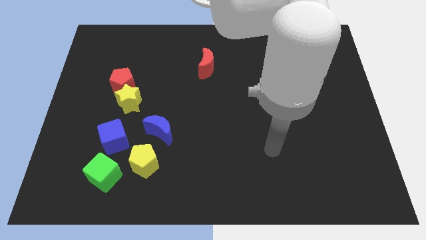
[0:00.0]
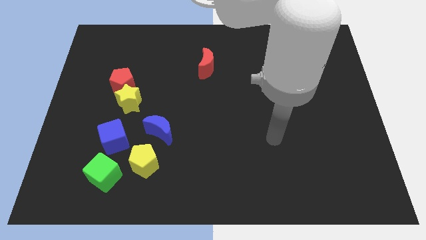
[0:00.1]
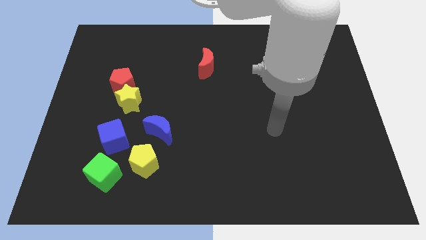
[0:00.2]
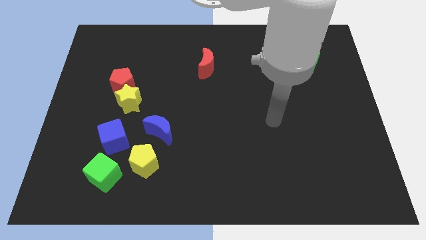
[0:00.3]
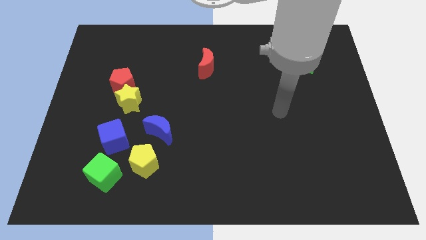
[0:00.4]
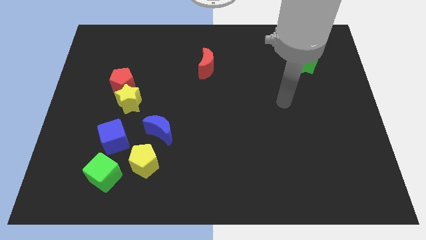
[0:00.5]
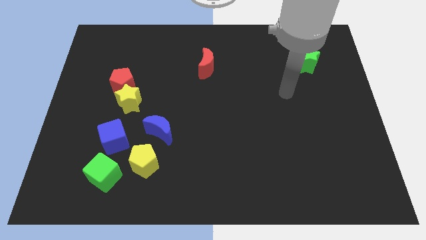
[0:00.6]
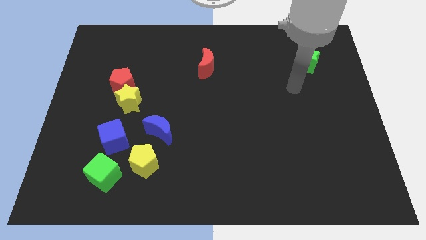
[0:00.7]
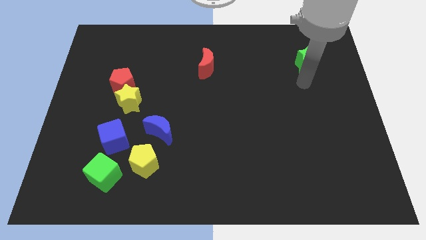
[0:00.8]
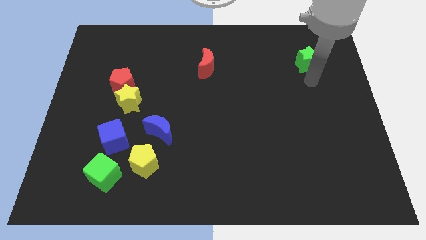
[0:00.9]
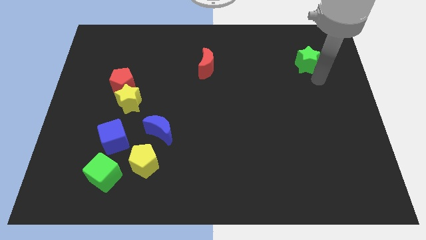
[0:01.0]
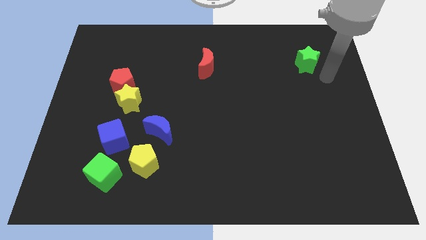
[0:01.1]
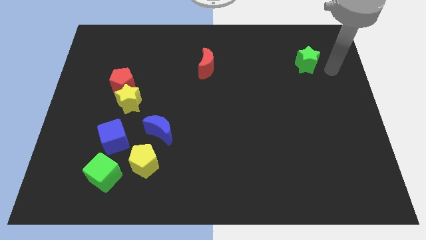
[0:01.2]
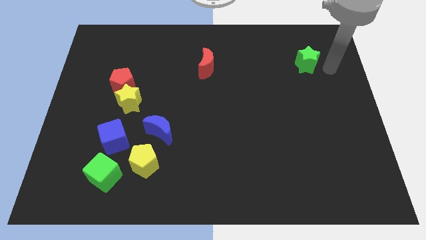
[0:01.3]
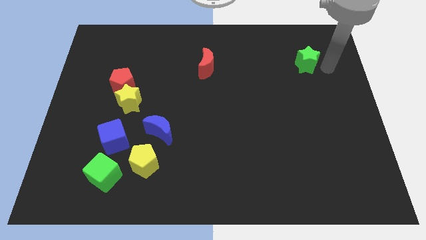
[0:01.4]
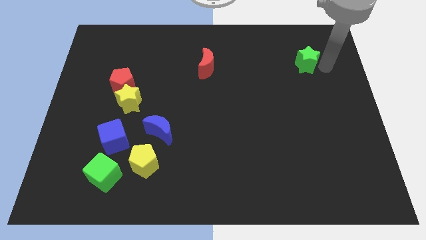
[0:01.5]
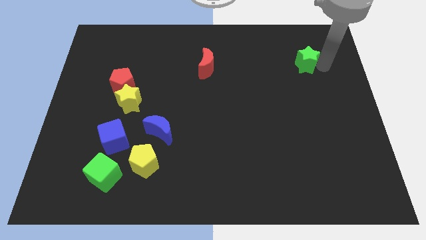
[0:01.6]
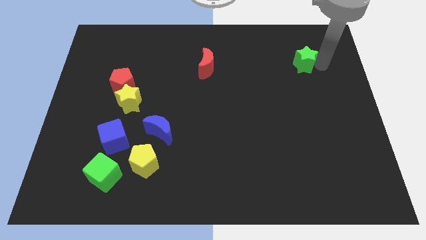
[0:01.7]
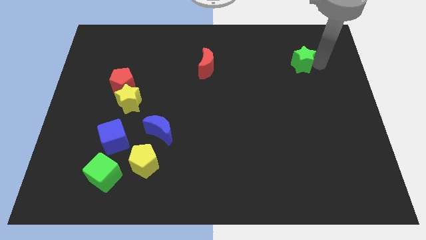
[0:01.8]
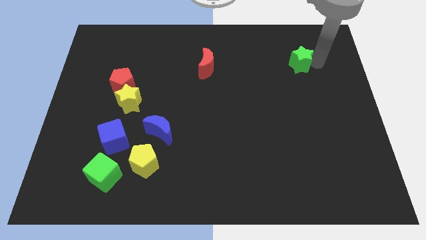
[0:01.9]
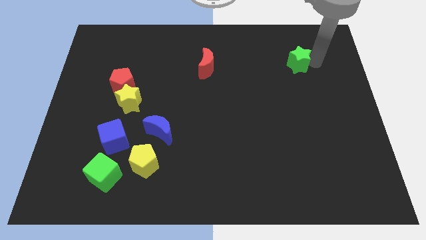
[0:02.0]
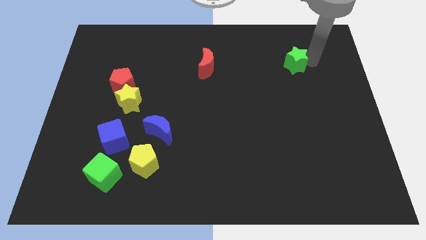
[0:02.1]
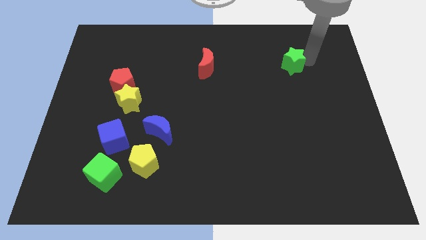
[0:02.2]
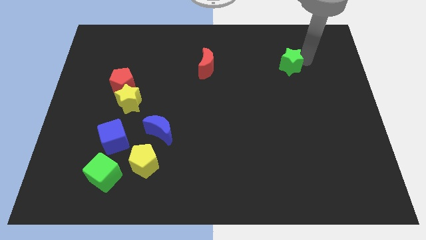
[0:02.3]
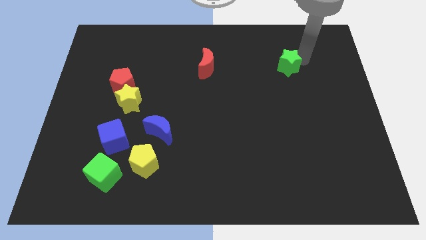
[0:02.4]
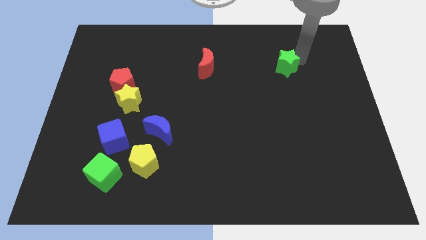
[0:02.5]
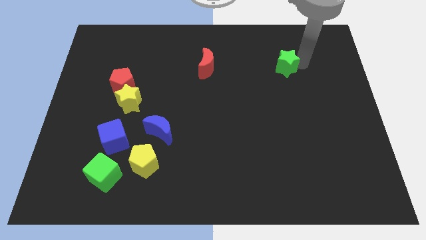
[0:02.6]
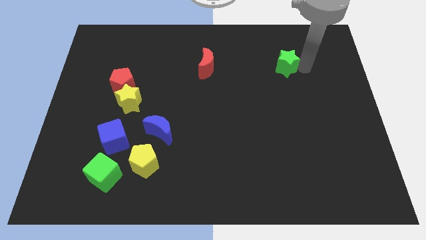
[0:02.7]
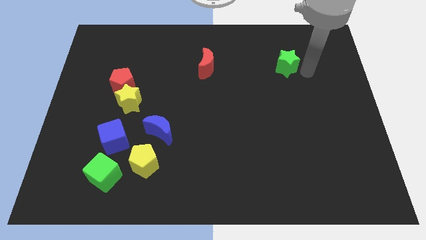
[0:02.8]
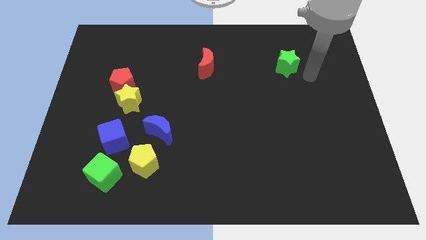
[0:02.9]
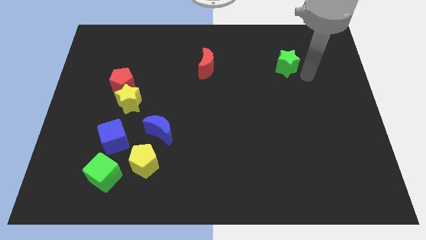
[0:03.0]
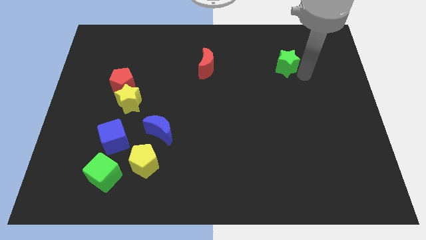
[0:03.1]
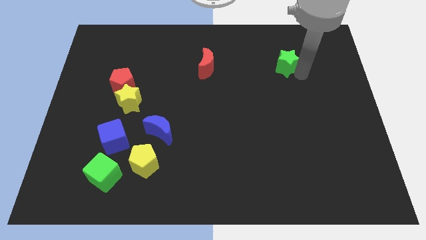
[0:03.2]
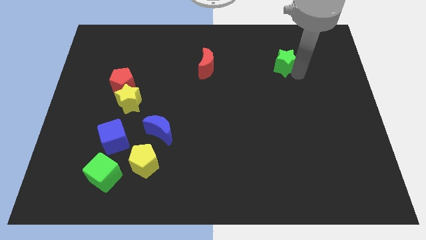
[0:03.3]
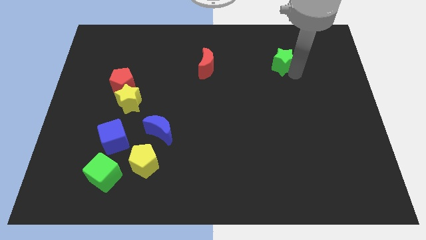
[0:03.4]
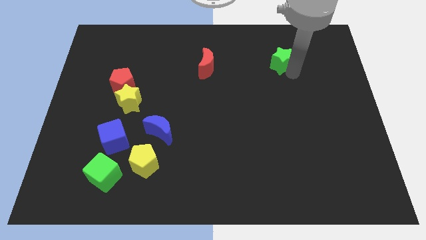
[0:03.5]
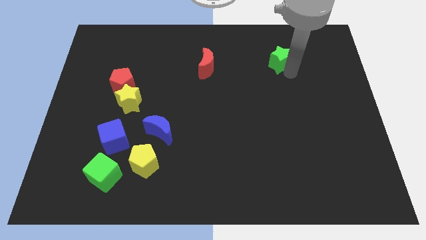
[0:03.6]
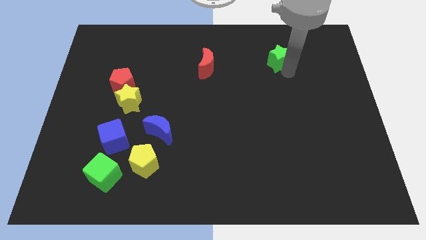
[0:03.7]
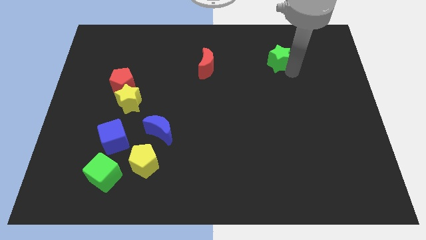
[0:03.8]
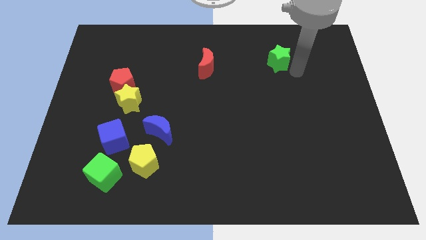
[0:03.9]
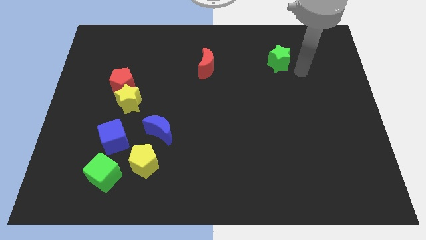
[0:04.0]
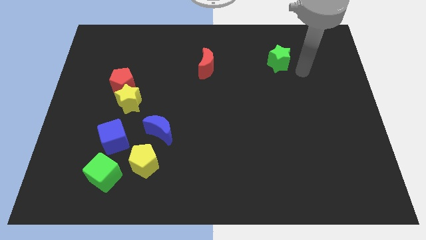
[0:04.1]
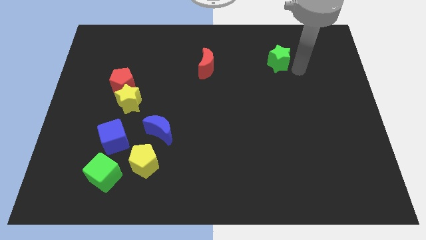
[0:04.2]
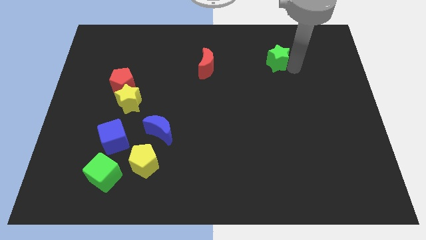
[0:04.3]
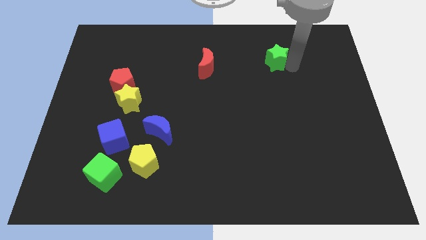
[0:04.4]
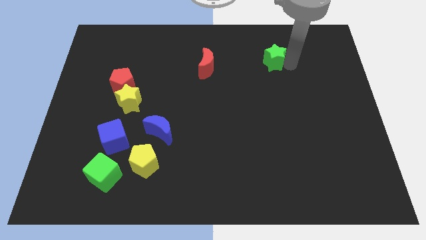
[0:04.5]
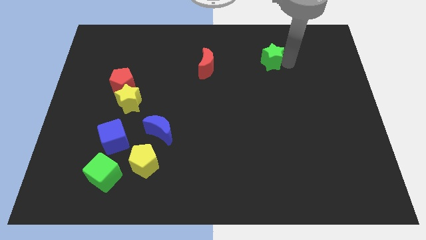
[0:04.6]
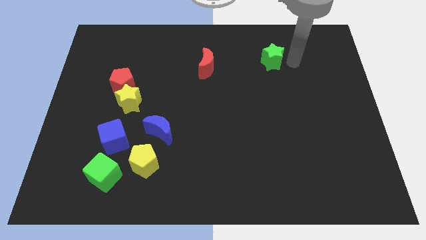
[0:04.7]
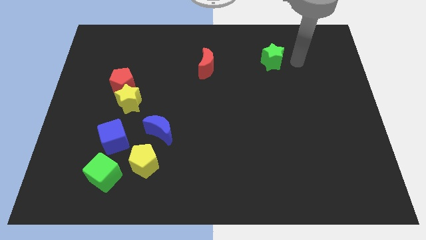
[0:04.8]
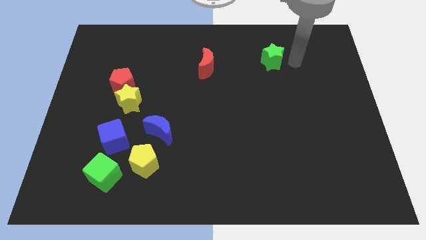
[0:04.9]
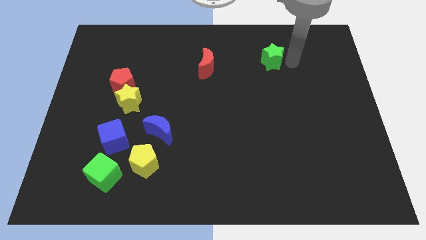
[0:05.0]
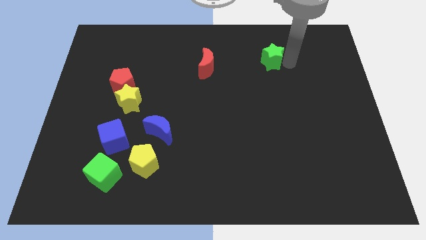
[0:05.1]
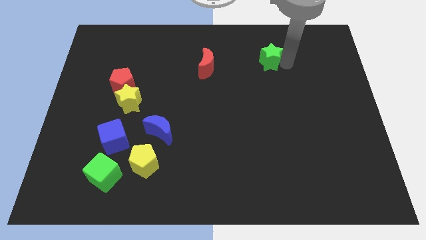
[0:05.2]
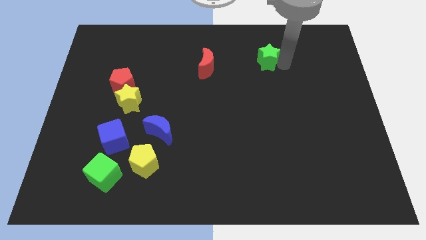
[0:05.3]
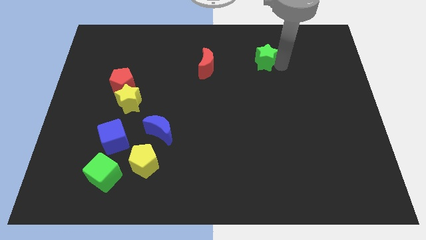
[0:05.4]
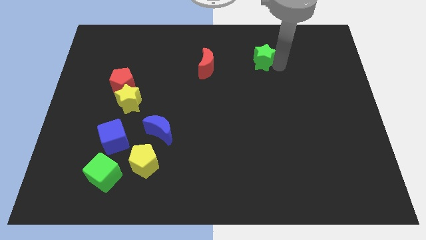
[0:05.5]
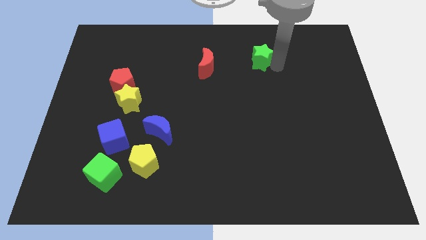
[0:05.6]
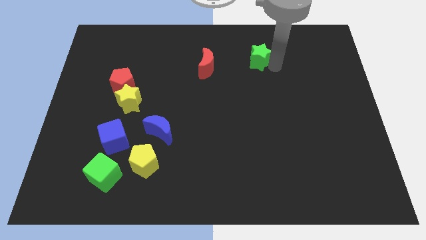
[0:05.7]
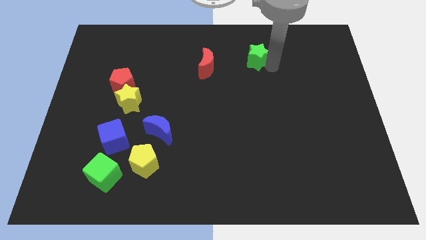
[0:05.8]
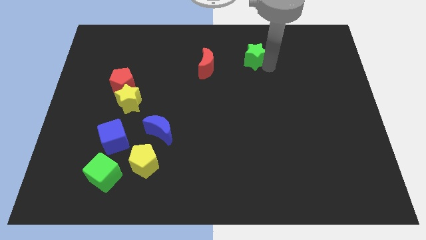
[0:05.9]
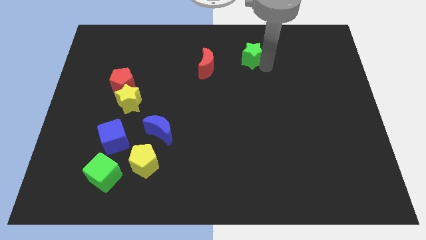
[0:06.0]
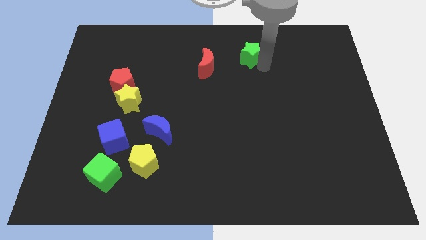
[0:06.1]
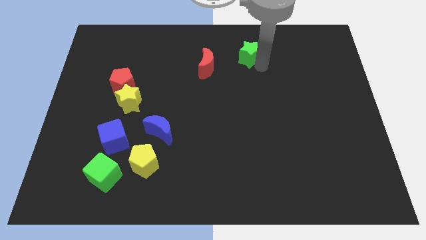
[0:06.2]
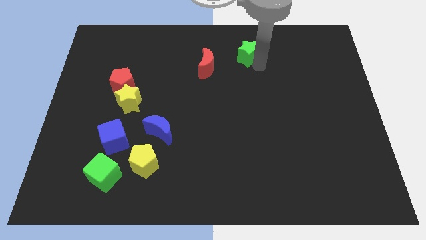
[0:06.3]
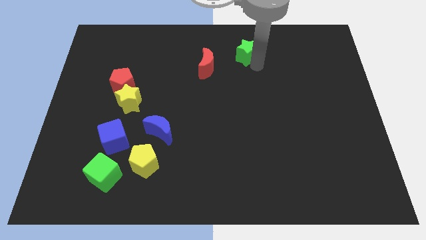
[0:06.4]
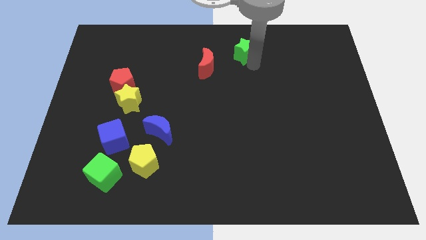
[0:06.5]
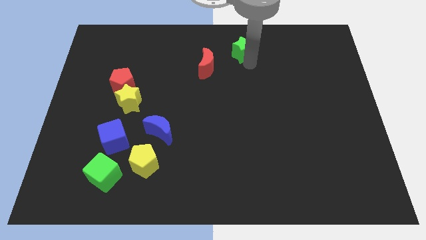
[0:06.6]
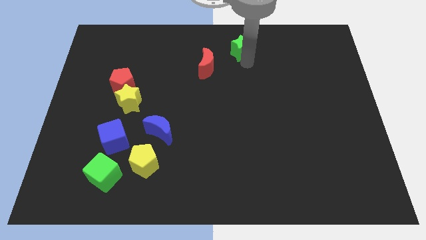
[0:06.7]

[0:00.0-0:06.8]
put the green star to the top side

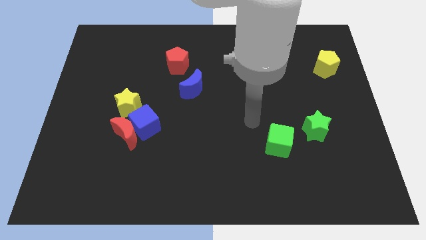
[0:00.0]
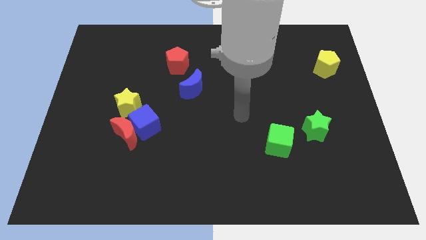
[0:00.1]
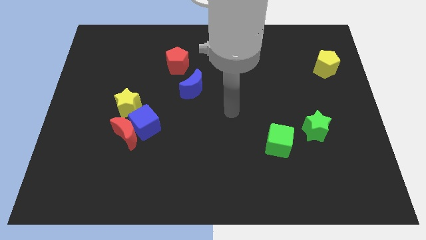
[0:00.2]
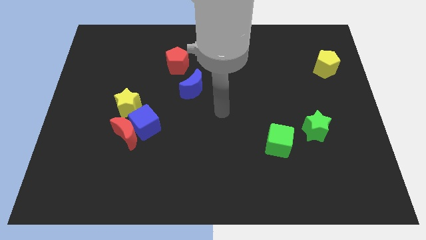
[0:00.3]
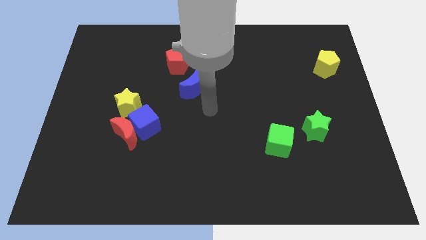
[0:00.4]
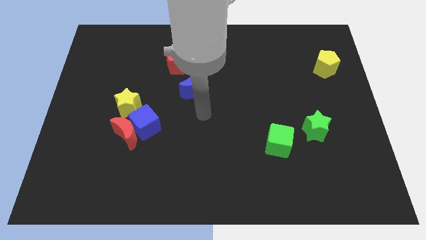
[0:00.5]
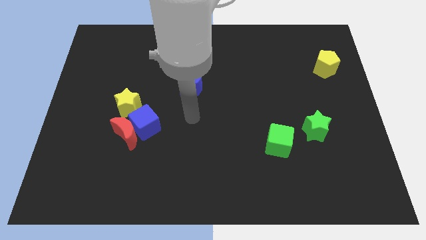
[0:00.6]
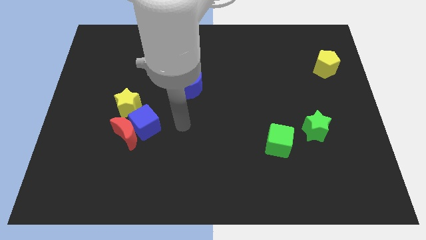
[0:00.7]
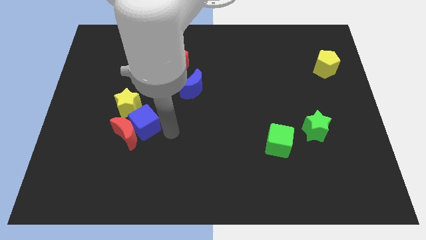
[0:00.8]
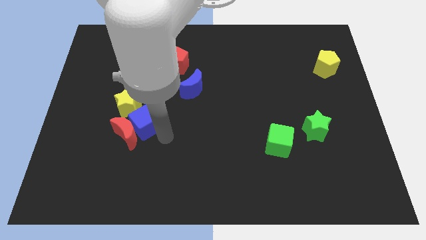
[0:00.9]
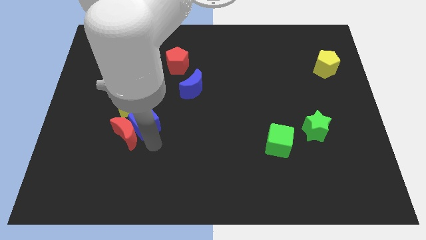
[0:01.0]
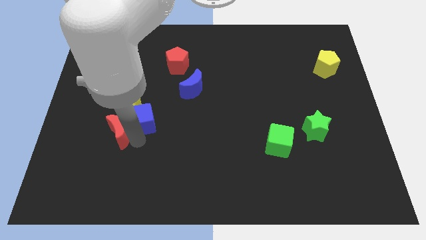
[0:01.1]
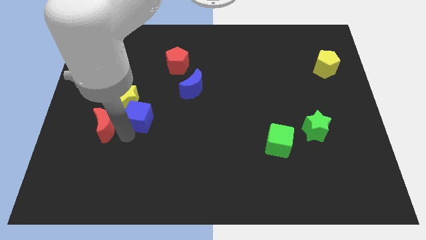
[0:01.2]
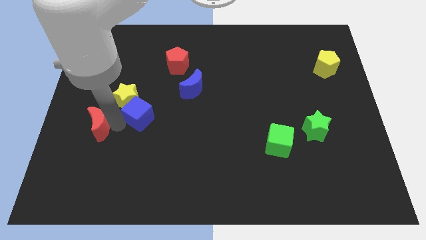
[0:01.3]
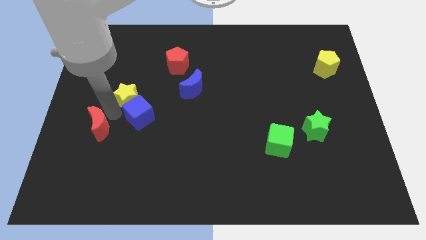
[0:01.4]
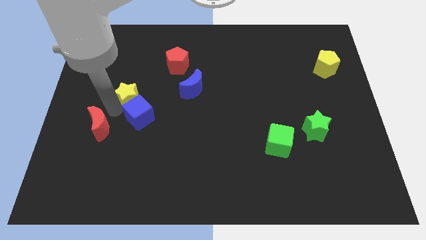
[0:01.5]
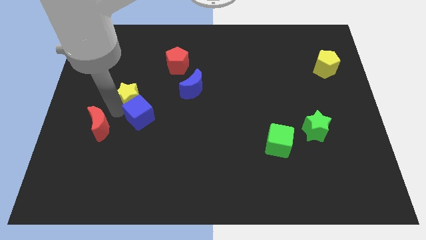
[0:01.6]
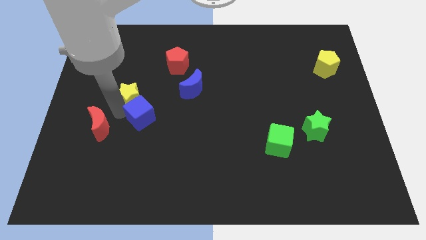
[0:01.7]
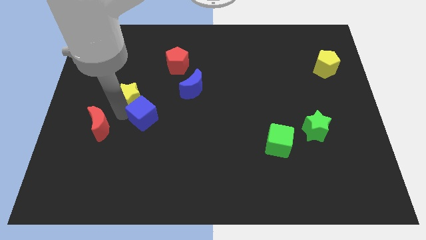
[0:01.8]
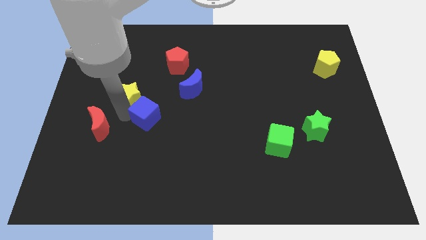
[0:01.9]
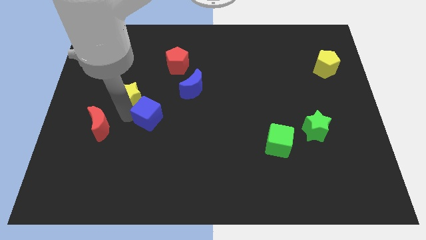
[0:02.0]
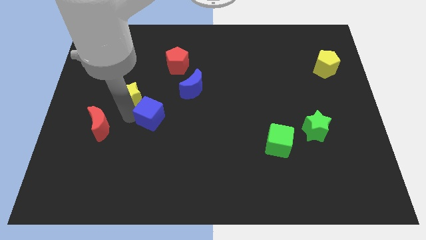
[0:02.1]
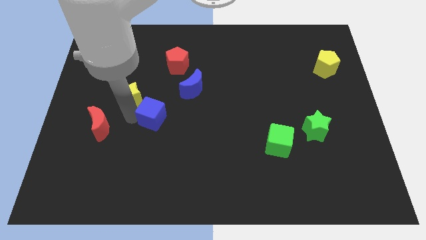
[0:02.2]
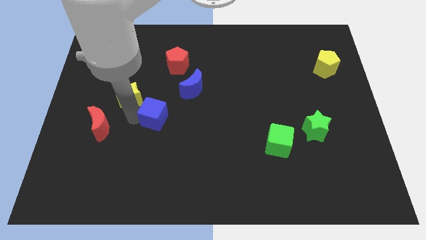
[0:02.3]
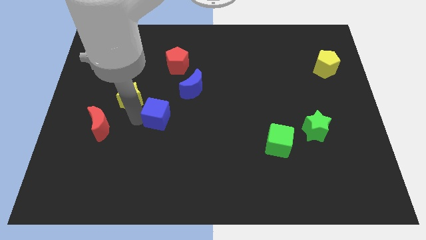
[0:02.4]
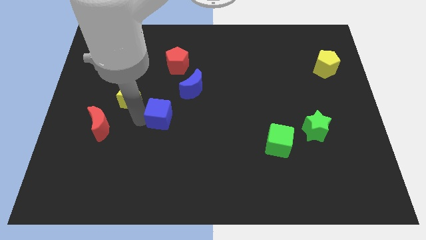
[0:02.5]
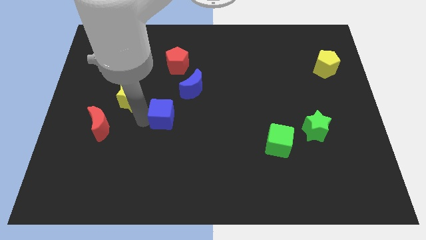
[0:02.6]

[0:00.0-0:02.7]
put the blue cube to the middle of the board
